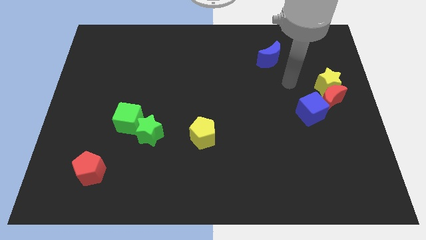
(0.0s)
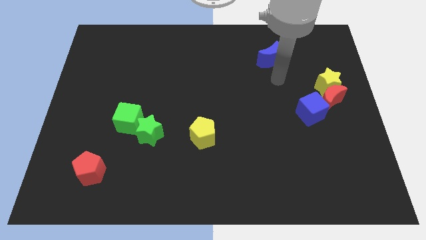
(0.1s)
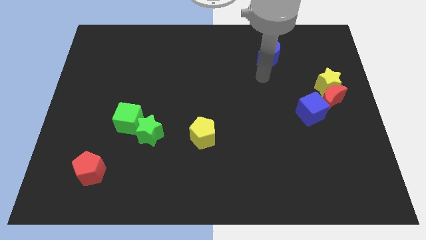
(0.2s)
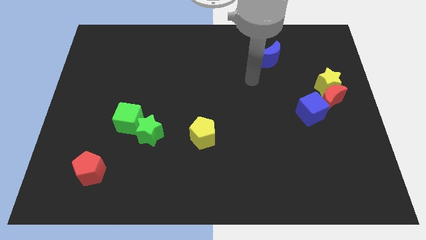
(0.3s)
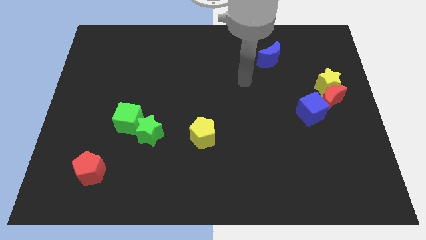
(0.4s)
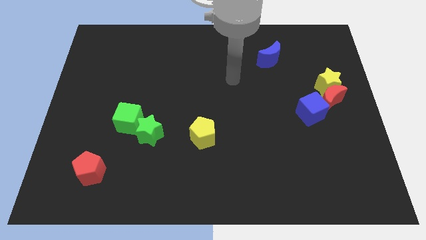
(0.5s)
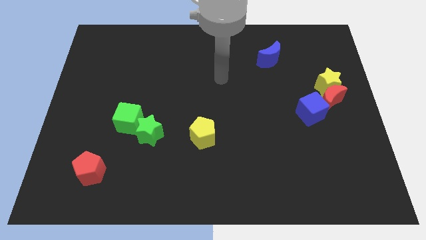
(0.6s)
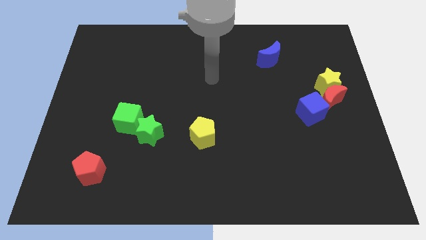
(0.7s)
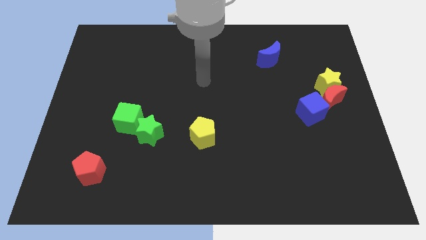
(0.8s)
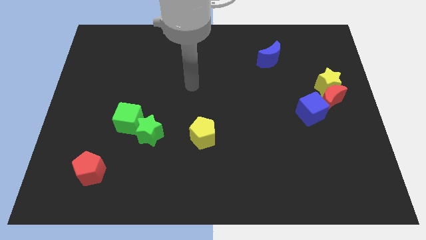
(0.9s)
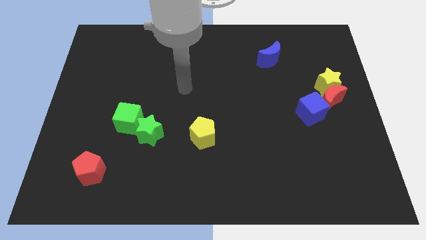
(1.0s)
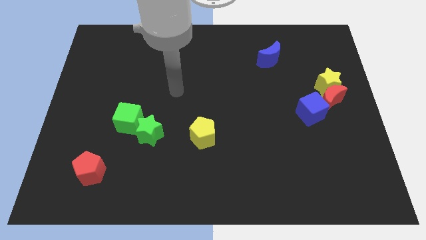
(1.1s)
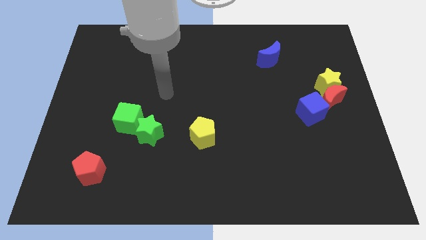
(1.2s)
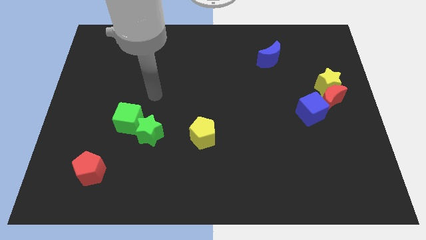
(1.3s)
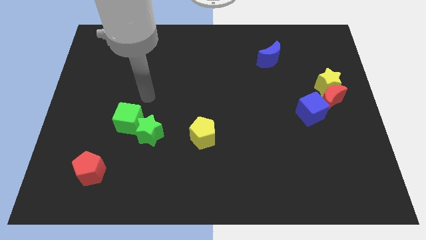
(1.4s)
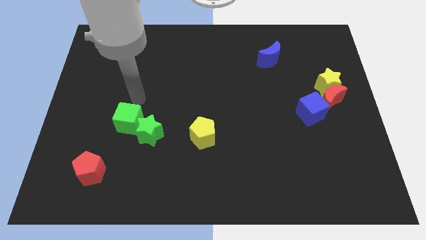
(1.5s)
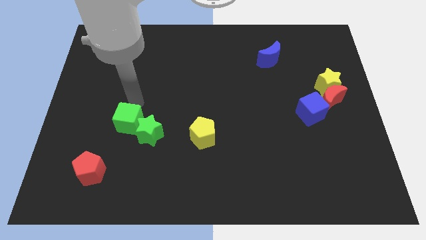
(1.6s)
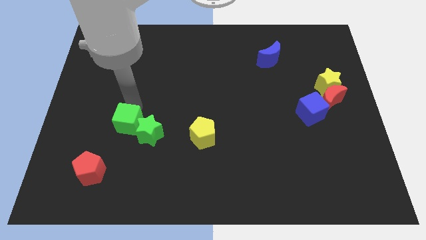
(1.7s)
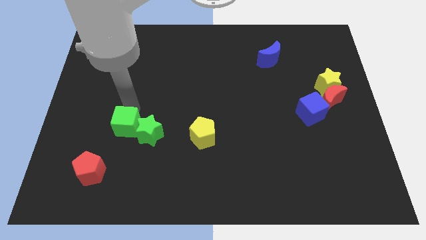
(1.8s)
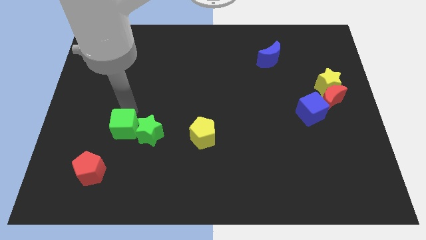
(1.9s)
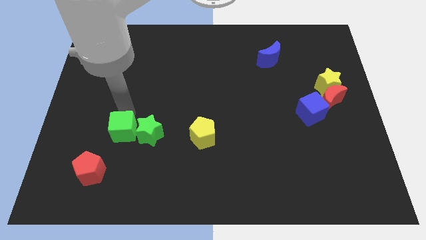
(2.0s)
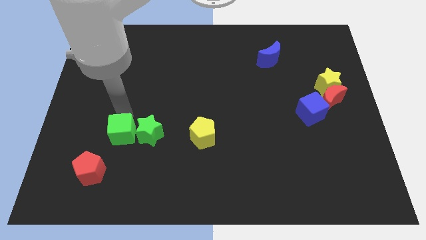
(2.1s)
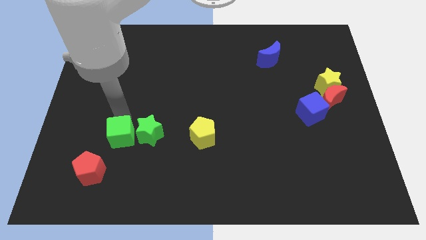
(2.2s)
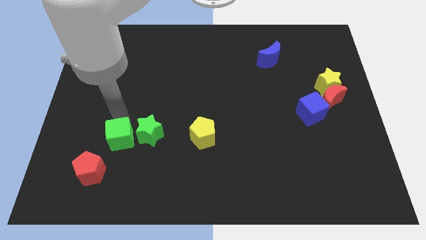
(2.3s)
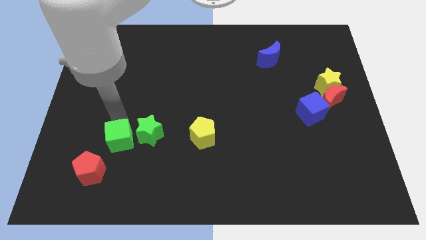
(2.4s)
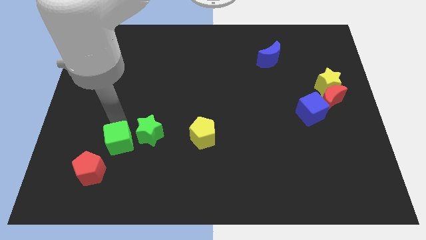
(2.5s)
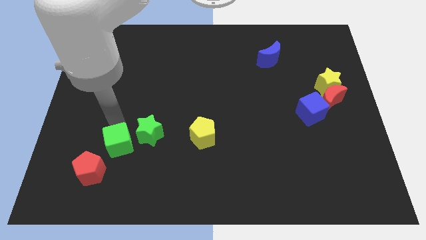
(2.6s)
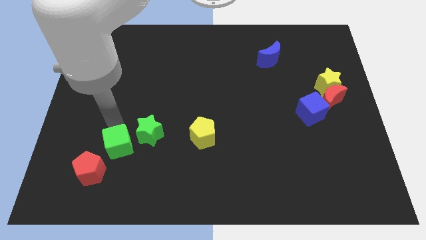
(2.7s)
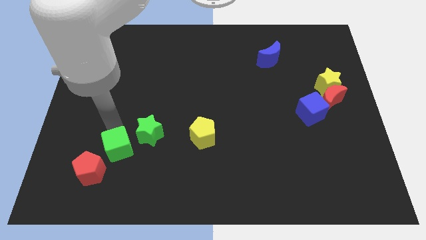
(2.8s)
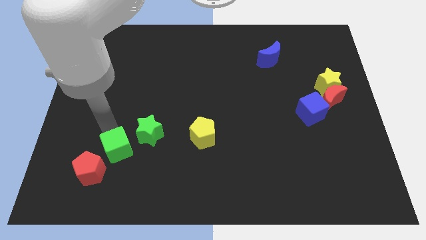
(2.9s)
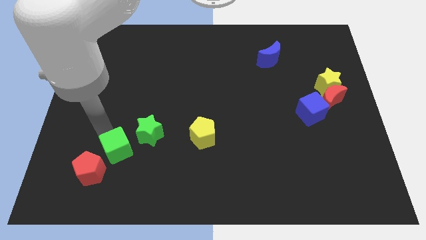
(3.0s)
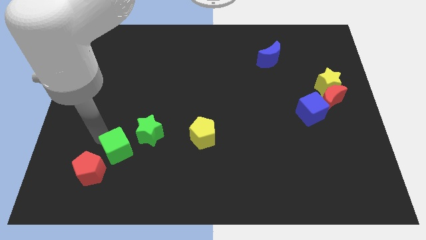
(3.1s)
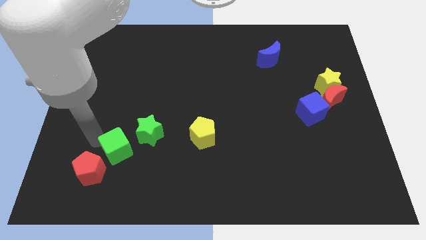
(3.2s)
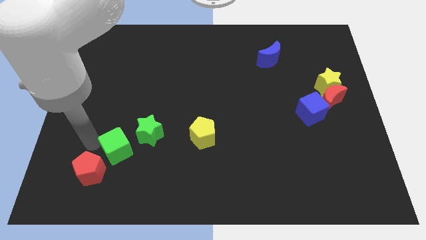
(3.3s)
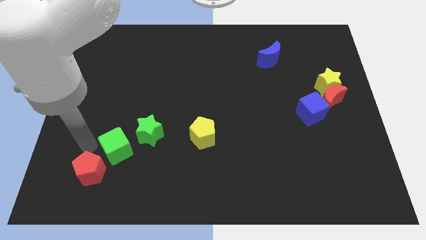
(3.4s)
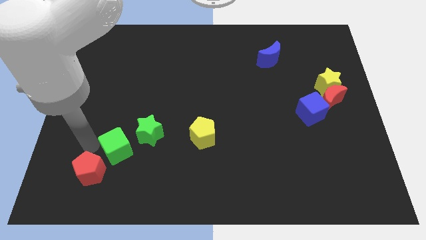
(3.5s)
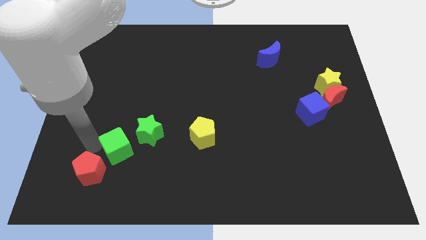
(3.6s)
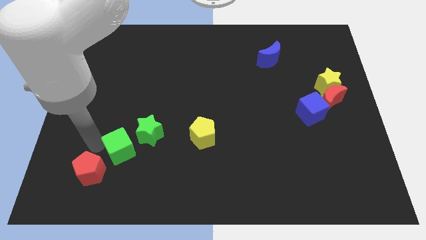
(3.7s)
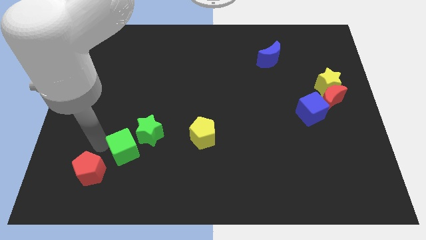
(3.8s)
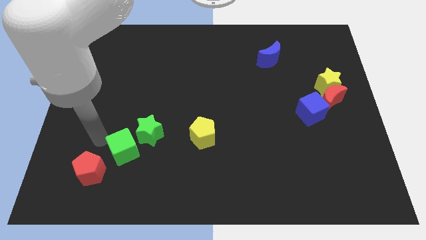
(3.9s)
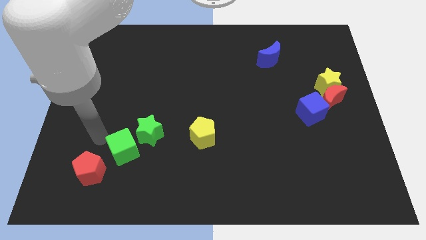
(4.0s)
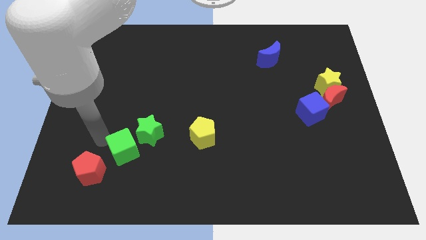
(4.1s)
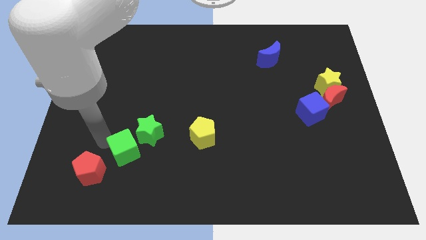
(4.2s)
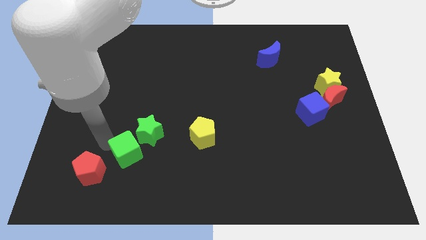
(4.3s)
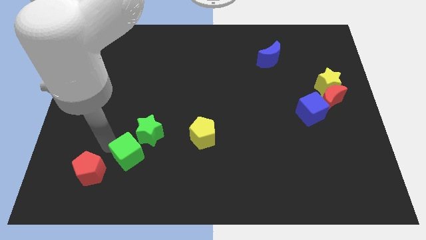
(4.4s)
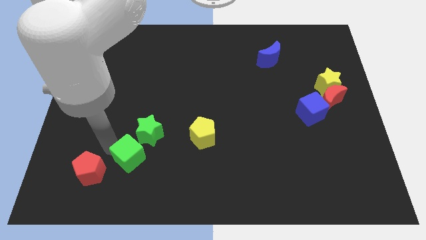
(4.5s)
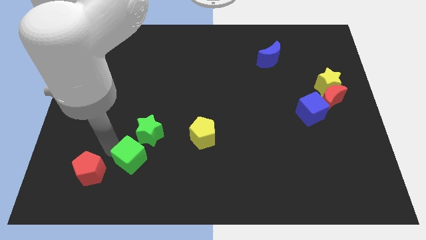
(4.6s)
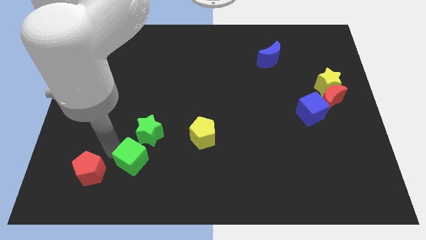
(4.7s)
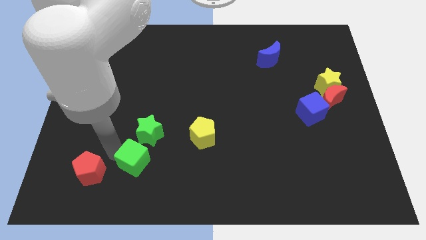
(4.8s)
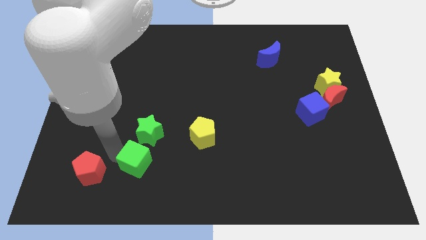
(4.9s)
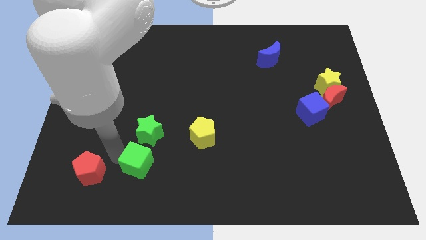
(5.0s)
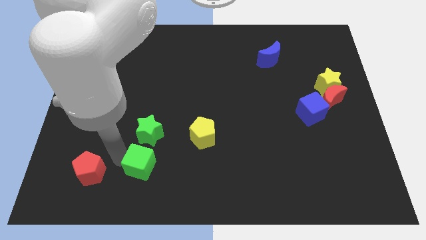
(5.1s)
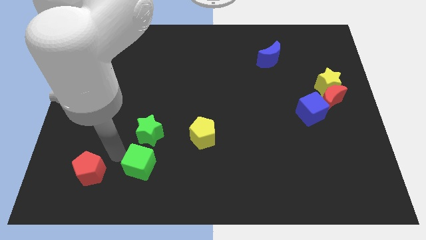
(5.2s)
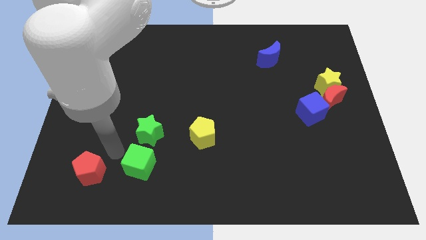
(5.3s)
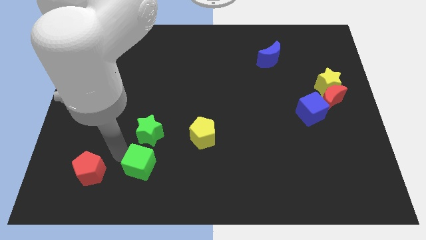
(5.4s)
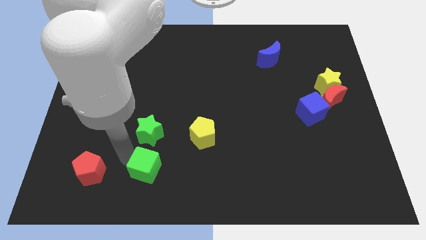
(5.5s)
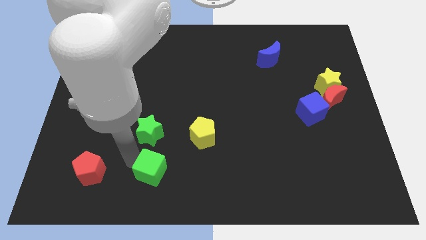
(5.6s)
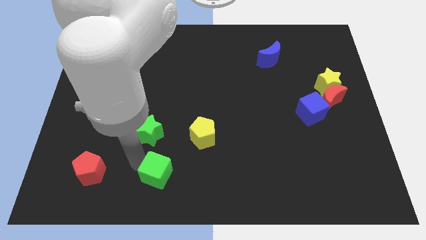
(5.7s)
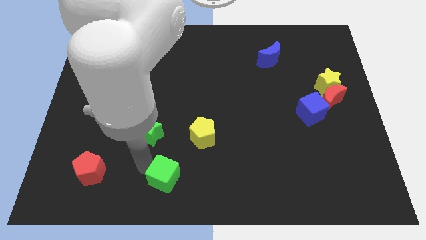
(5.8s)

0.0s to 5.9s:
slide the green cube to the bottom side
